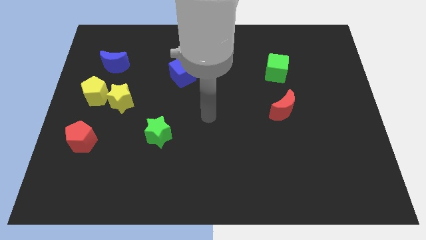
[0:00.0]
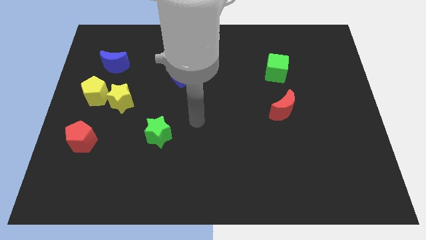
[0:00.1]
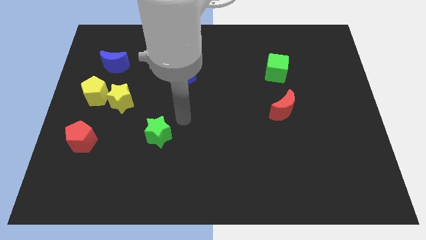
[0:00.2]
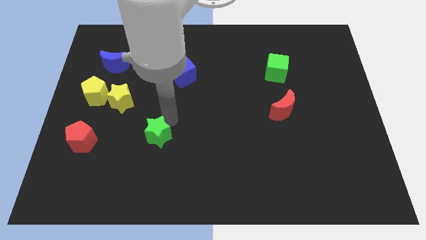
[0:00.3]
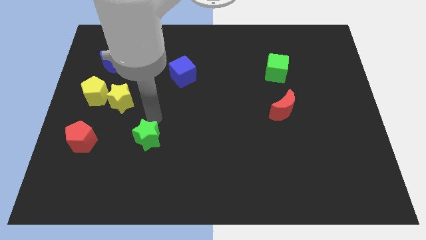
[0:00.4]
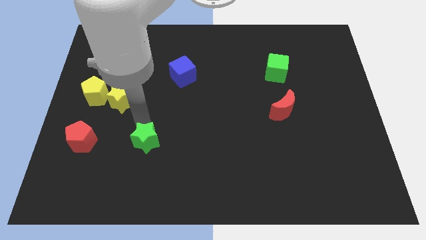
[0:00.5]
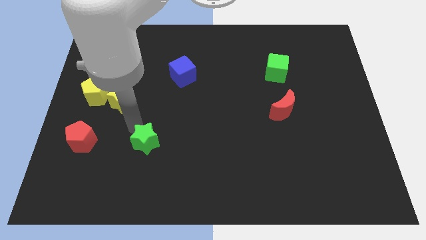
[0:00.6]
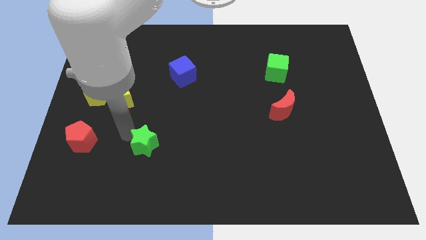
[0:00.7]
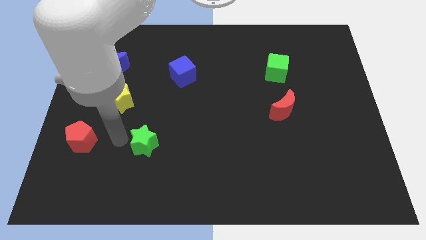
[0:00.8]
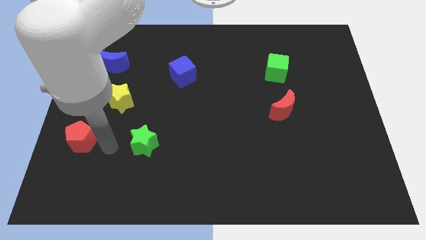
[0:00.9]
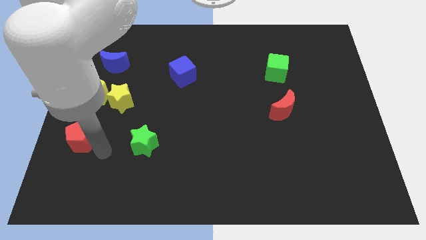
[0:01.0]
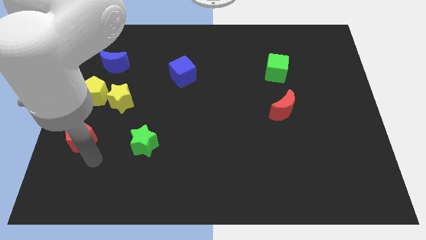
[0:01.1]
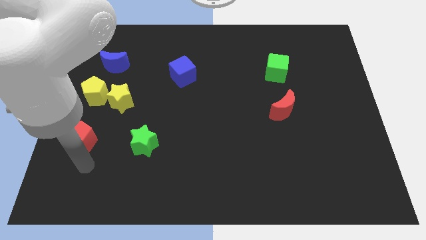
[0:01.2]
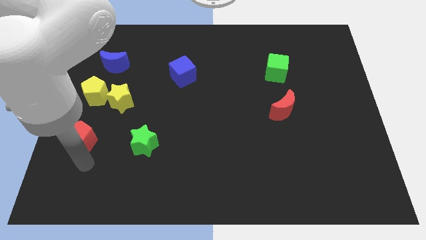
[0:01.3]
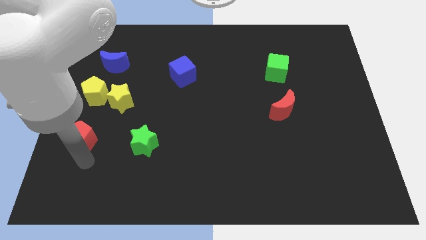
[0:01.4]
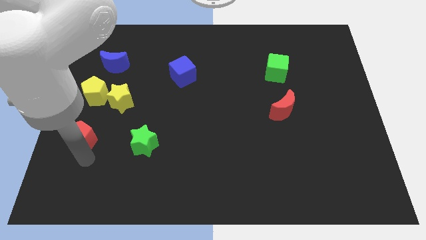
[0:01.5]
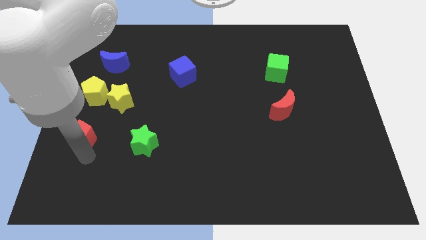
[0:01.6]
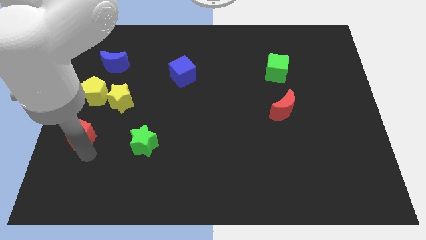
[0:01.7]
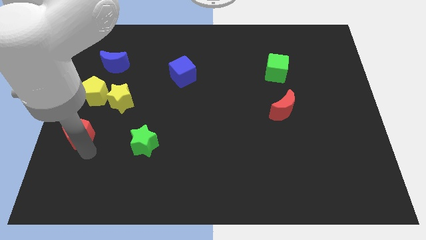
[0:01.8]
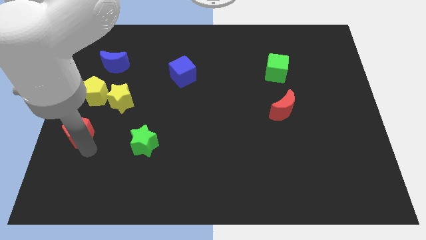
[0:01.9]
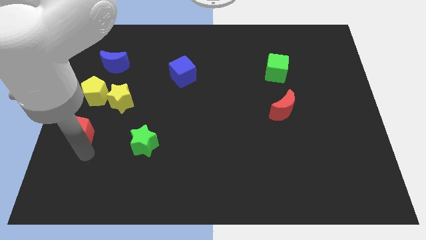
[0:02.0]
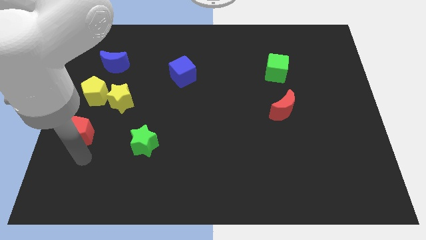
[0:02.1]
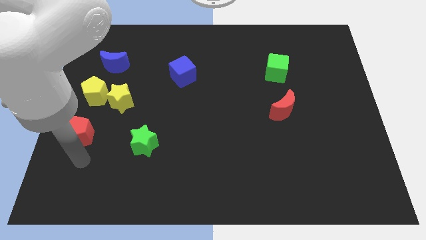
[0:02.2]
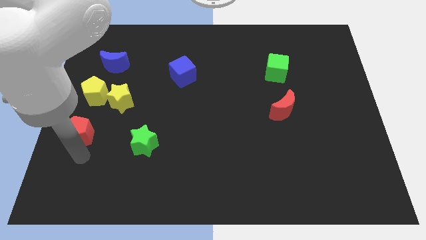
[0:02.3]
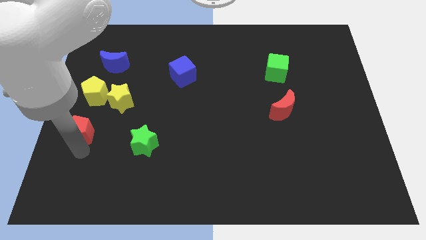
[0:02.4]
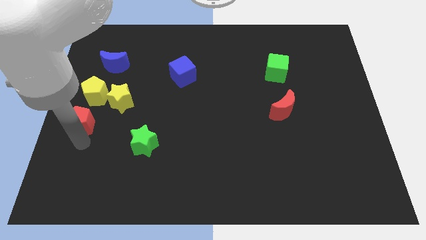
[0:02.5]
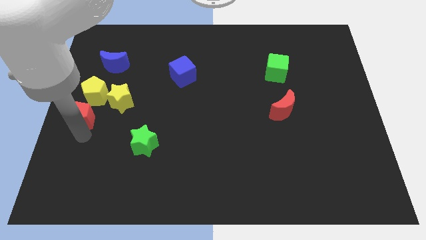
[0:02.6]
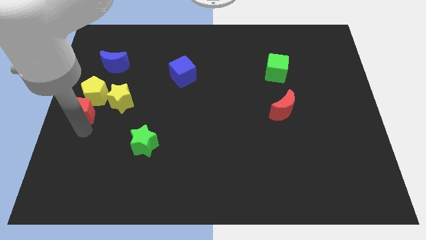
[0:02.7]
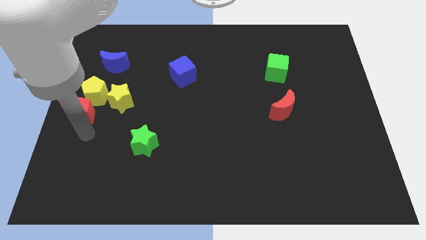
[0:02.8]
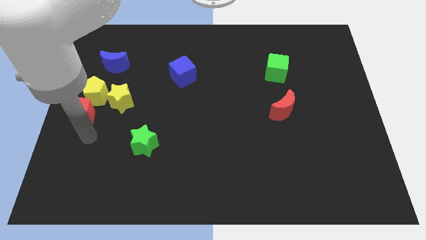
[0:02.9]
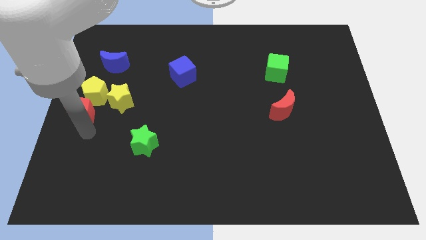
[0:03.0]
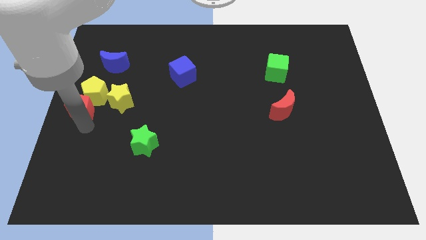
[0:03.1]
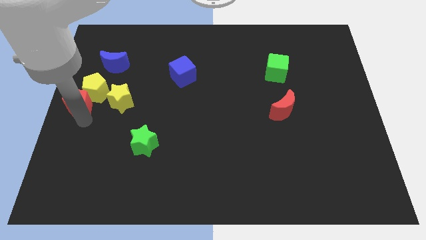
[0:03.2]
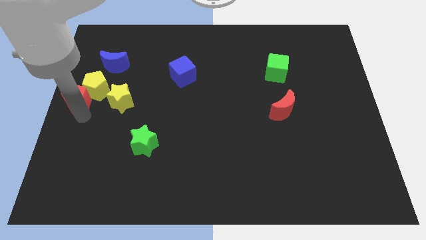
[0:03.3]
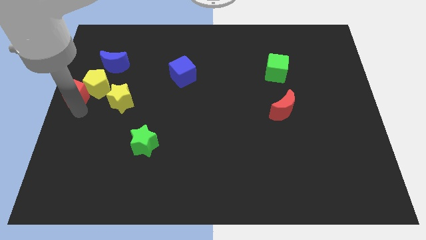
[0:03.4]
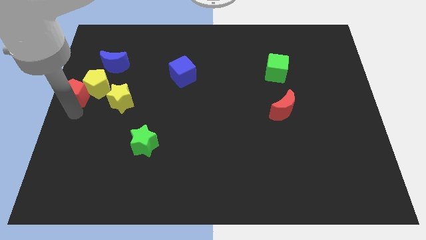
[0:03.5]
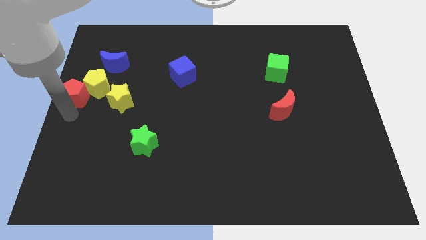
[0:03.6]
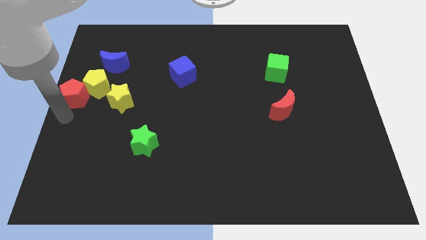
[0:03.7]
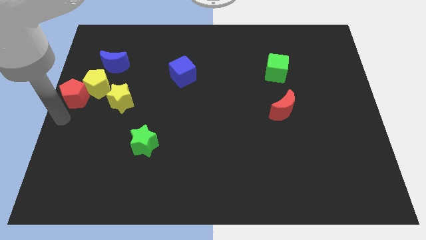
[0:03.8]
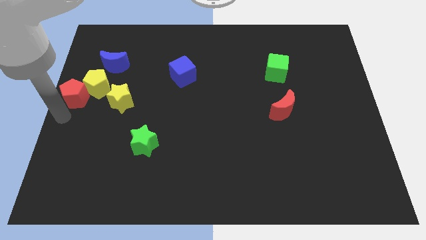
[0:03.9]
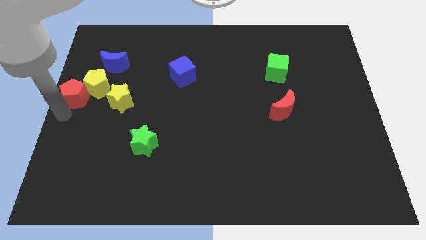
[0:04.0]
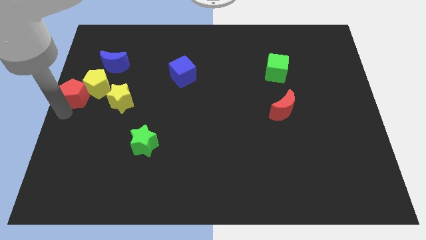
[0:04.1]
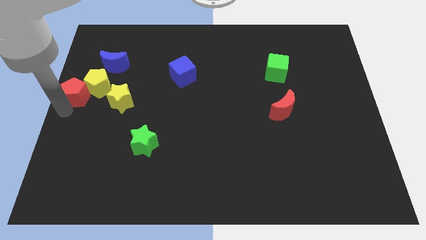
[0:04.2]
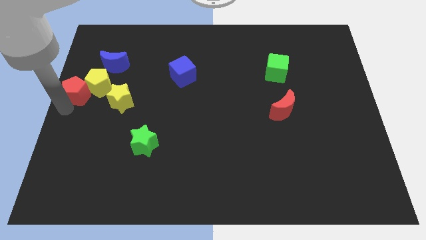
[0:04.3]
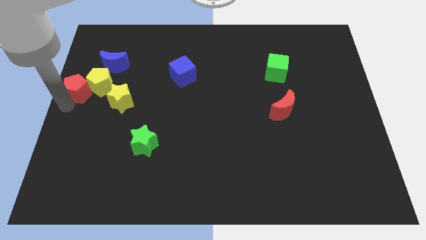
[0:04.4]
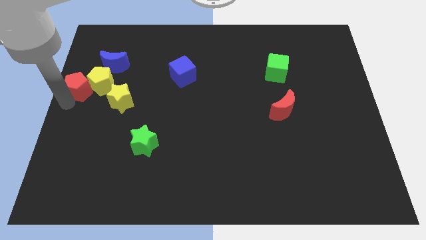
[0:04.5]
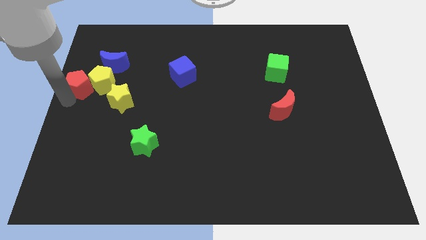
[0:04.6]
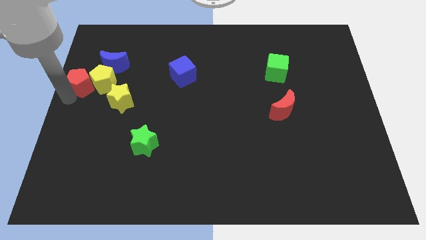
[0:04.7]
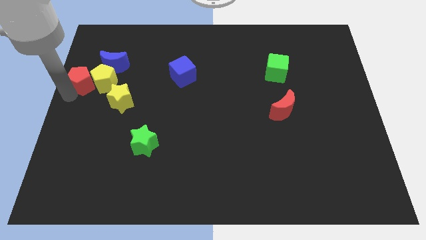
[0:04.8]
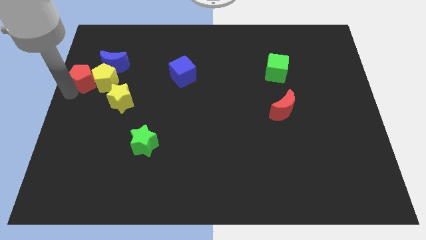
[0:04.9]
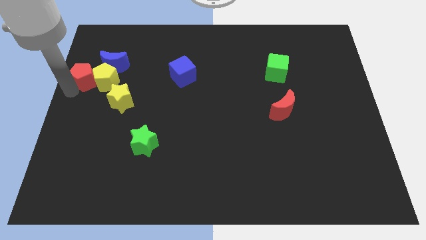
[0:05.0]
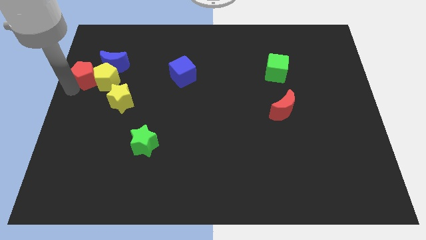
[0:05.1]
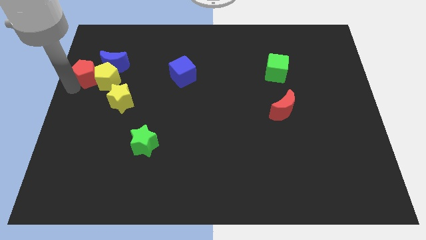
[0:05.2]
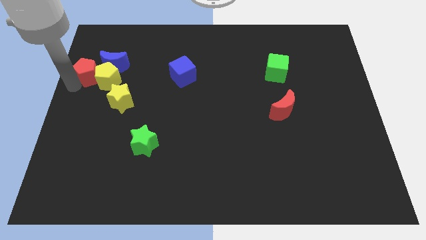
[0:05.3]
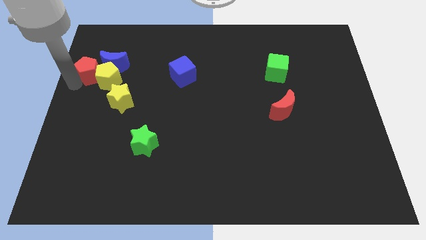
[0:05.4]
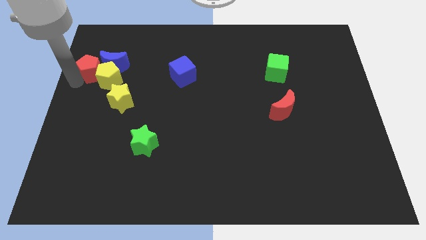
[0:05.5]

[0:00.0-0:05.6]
move the red pentagon towards the blue moon

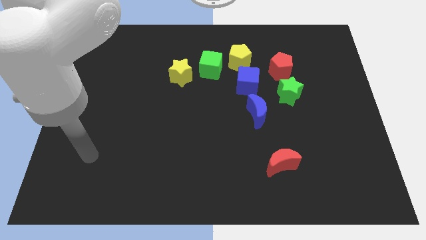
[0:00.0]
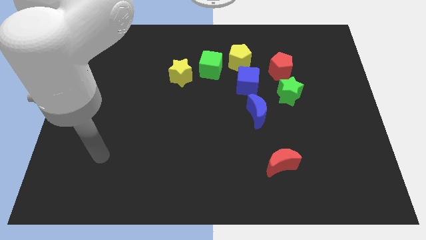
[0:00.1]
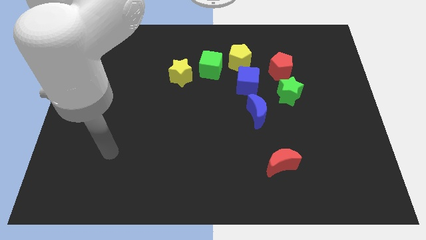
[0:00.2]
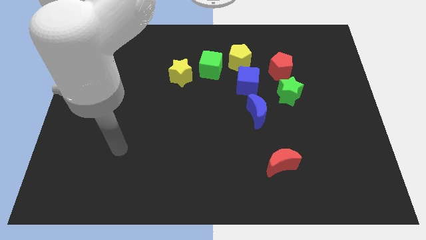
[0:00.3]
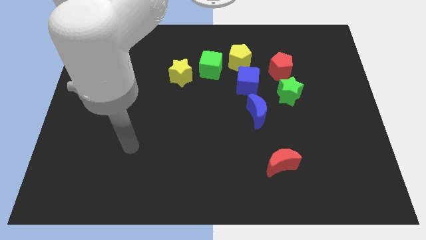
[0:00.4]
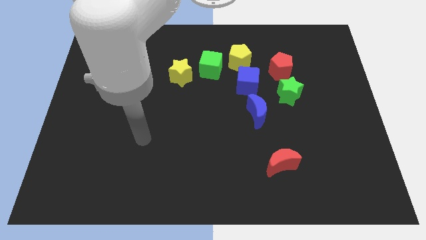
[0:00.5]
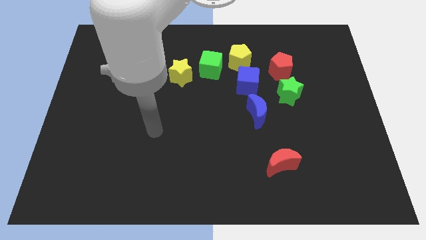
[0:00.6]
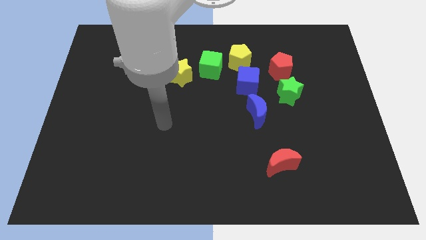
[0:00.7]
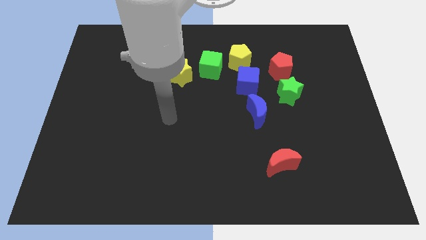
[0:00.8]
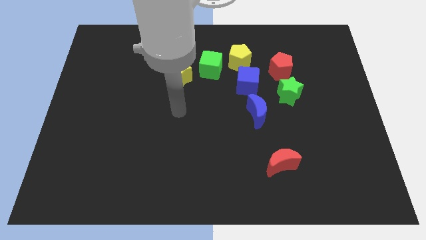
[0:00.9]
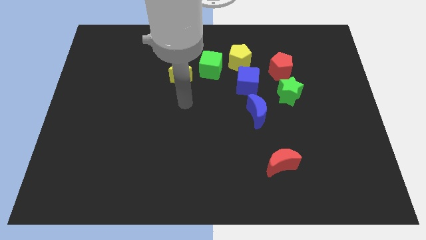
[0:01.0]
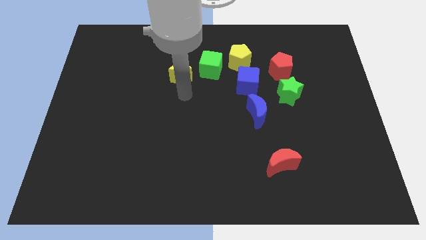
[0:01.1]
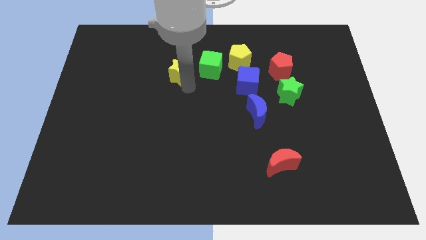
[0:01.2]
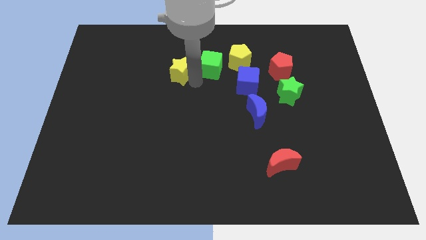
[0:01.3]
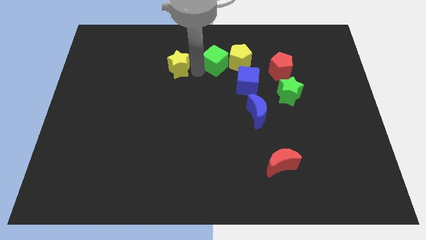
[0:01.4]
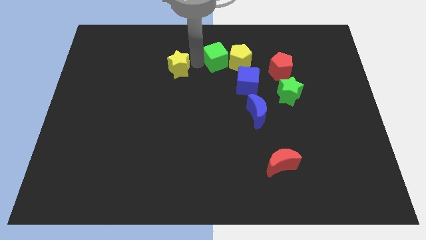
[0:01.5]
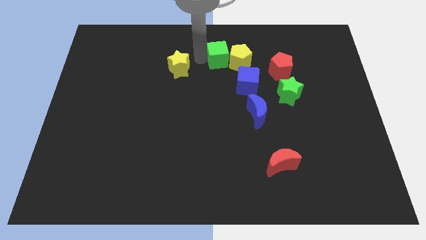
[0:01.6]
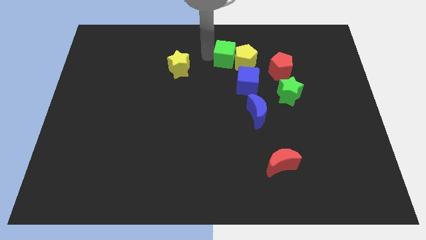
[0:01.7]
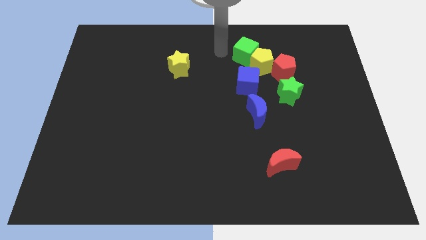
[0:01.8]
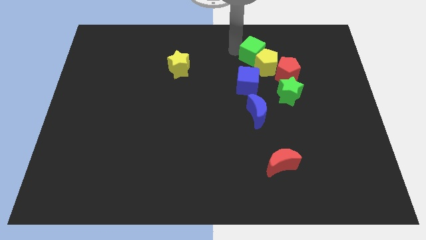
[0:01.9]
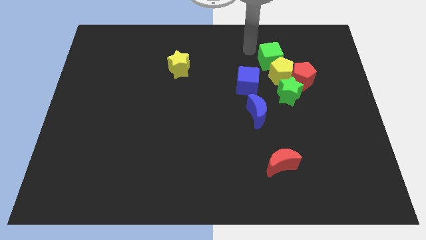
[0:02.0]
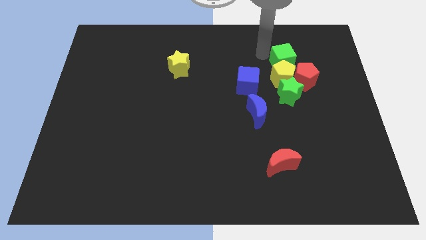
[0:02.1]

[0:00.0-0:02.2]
push the yellow pentagon to the green star
